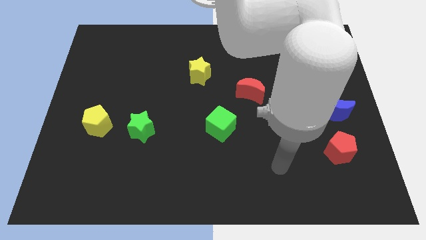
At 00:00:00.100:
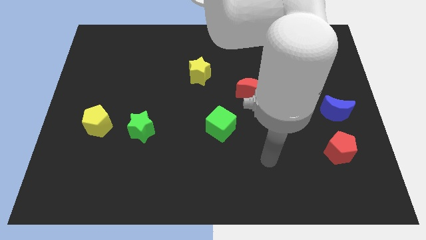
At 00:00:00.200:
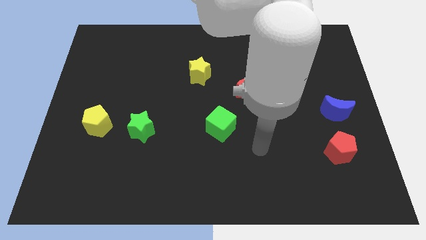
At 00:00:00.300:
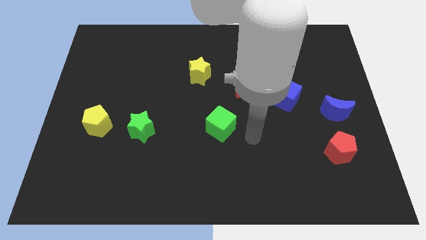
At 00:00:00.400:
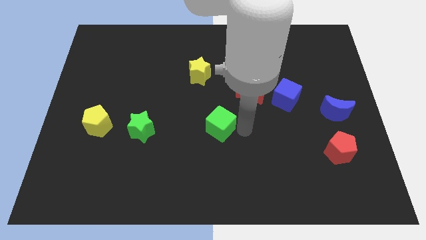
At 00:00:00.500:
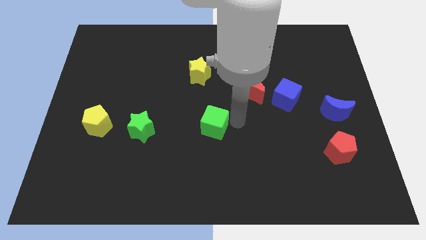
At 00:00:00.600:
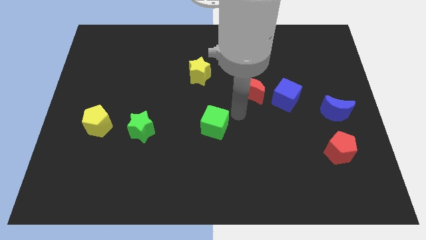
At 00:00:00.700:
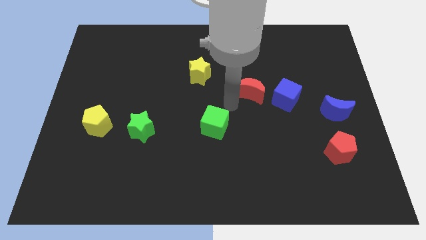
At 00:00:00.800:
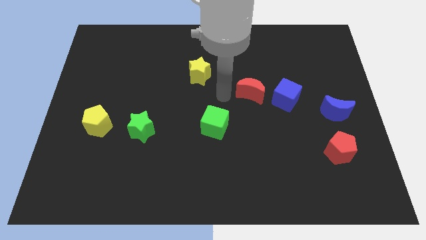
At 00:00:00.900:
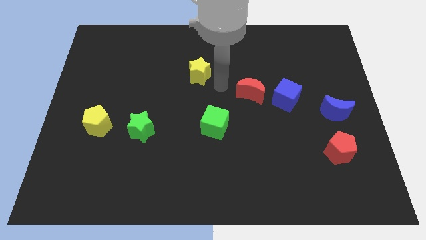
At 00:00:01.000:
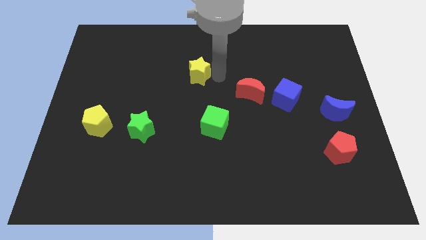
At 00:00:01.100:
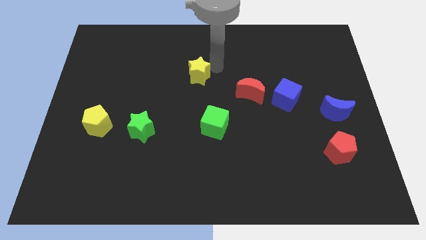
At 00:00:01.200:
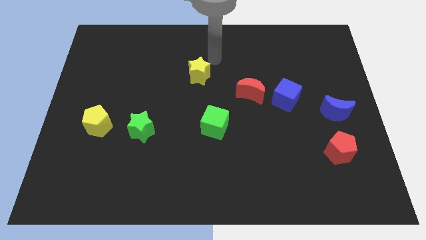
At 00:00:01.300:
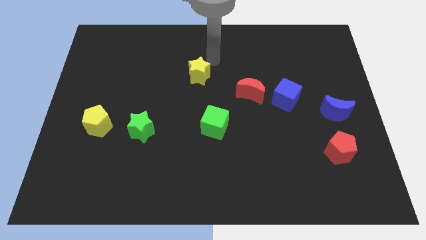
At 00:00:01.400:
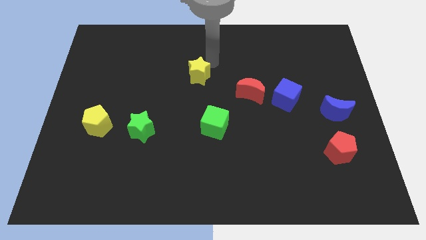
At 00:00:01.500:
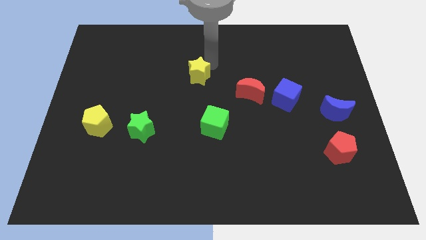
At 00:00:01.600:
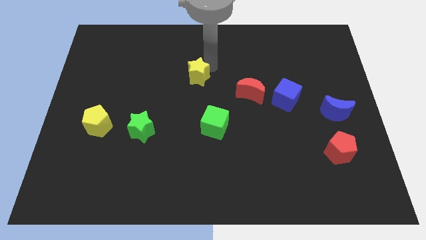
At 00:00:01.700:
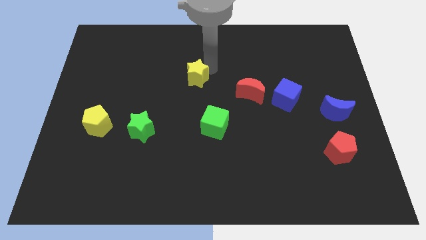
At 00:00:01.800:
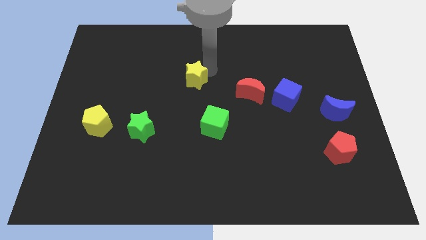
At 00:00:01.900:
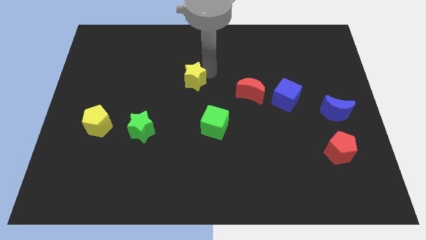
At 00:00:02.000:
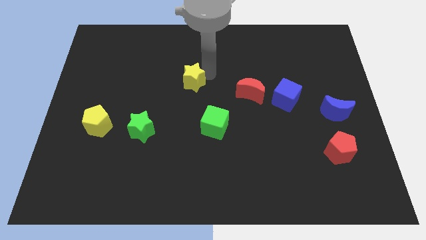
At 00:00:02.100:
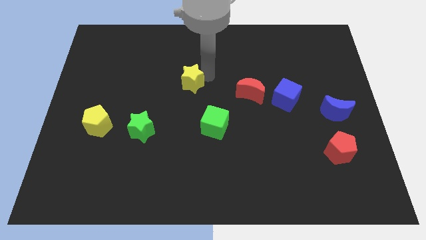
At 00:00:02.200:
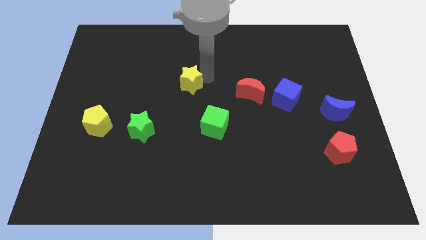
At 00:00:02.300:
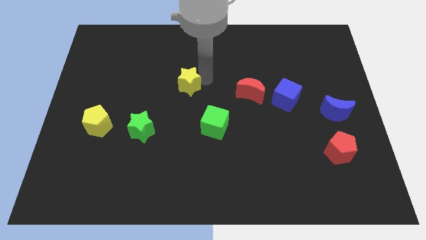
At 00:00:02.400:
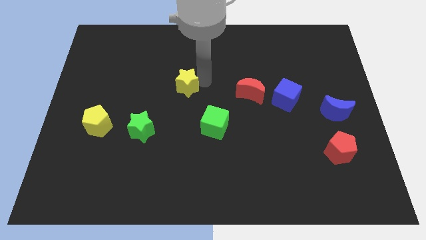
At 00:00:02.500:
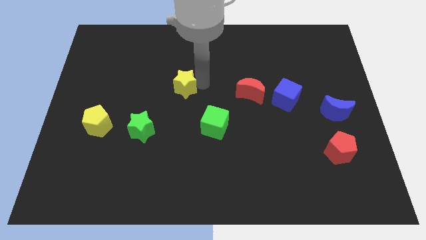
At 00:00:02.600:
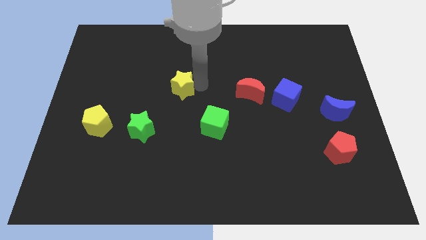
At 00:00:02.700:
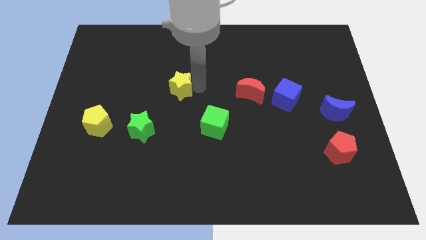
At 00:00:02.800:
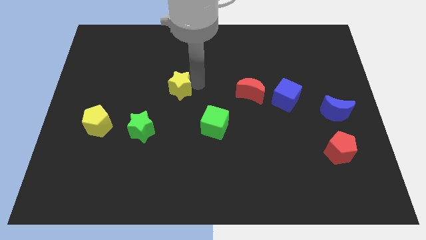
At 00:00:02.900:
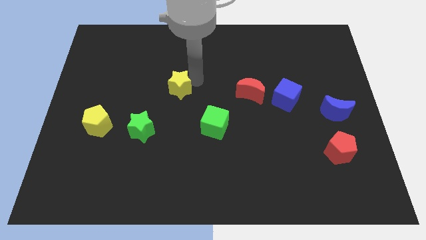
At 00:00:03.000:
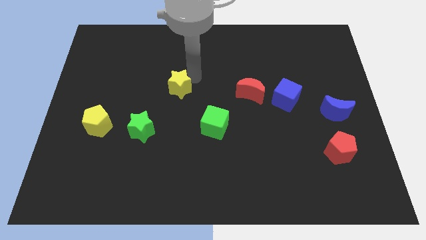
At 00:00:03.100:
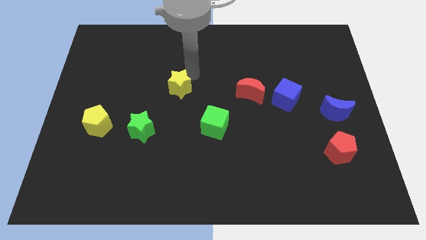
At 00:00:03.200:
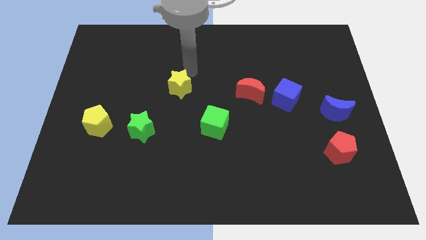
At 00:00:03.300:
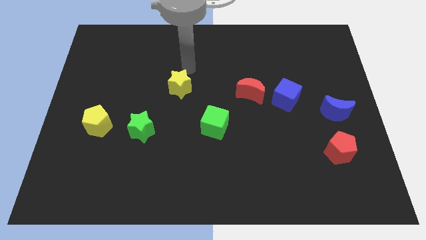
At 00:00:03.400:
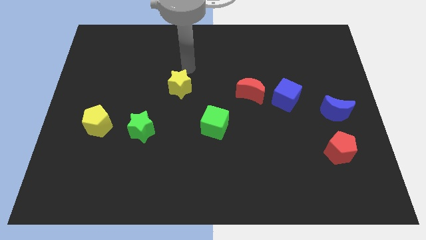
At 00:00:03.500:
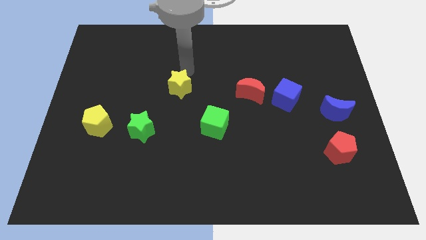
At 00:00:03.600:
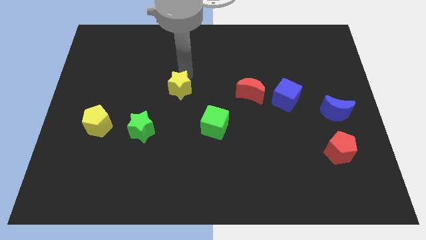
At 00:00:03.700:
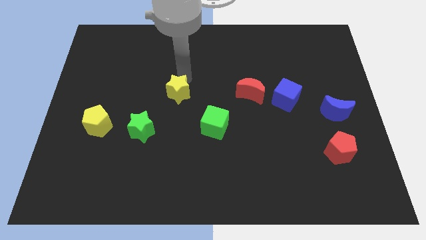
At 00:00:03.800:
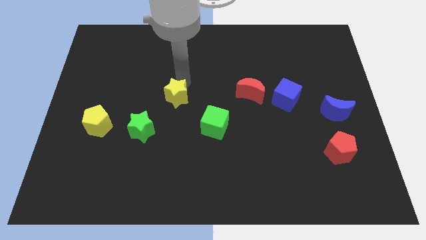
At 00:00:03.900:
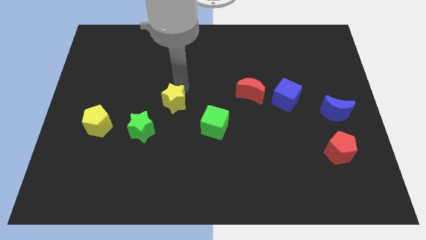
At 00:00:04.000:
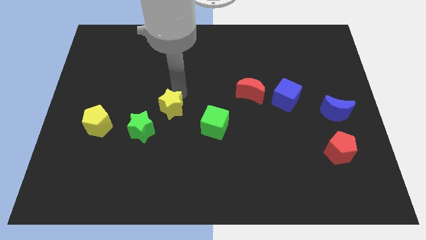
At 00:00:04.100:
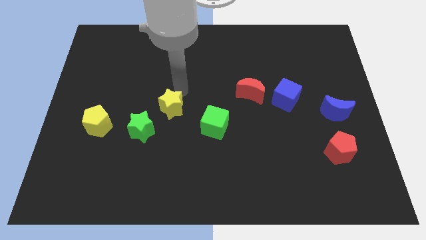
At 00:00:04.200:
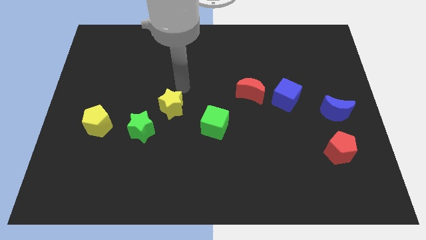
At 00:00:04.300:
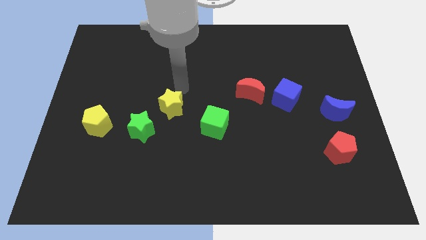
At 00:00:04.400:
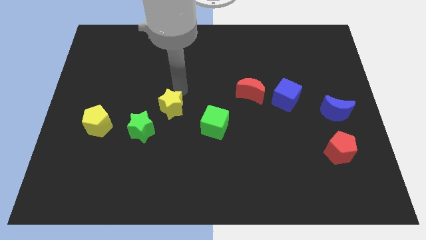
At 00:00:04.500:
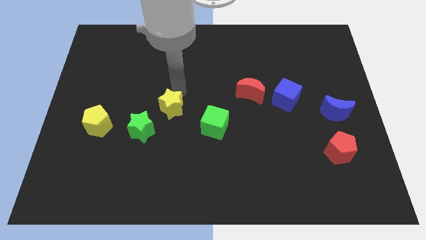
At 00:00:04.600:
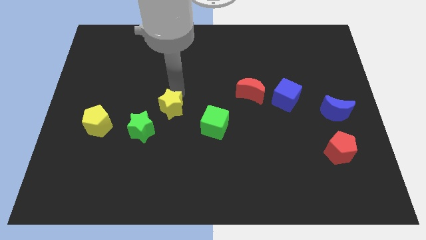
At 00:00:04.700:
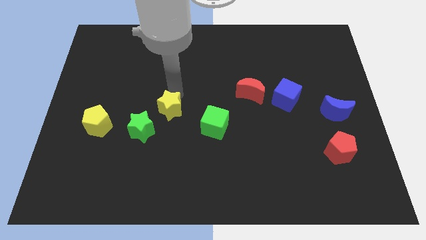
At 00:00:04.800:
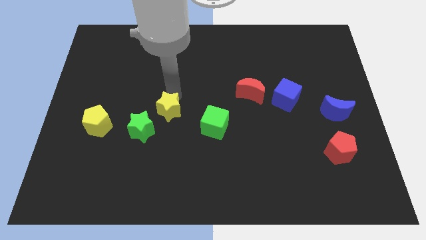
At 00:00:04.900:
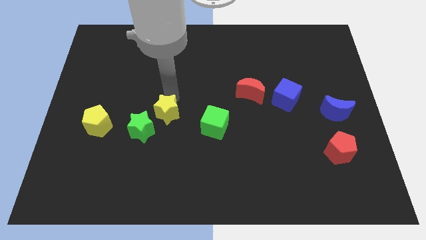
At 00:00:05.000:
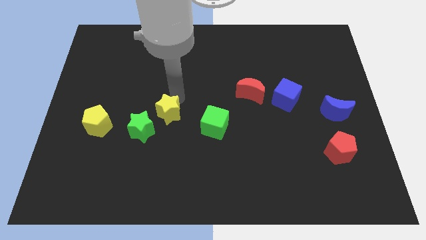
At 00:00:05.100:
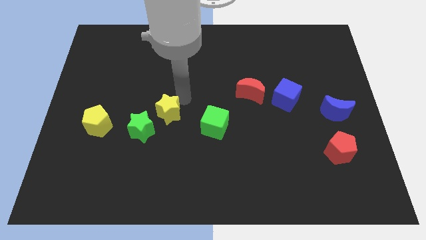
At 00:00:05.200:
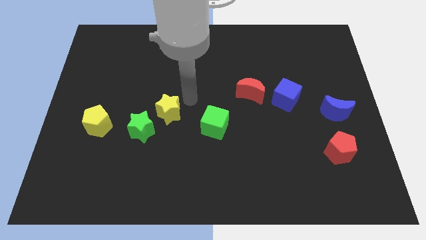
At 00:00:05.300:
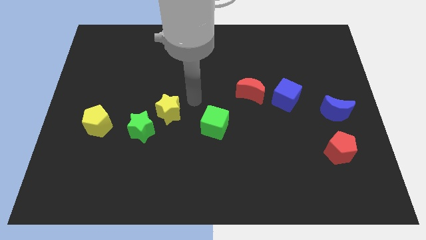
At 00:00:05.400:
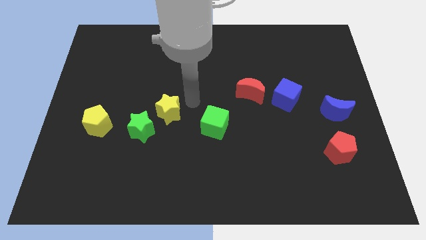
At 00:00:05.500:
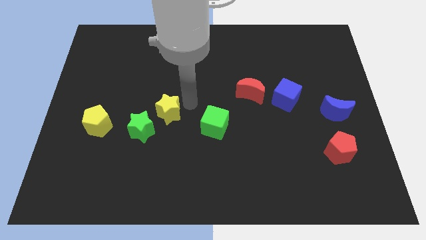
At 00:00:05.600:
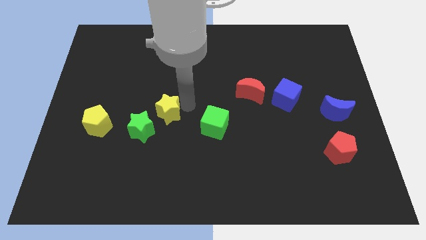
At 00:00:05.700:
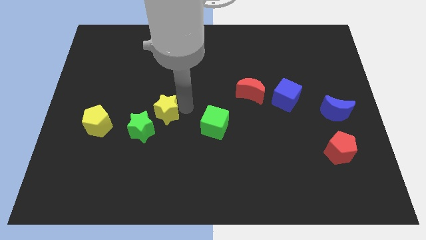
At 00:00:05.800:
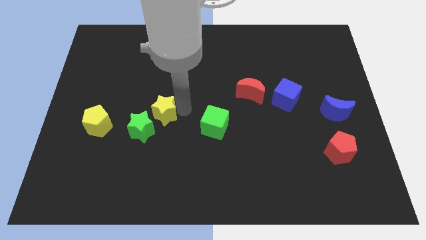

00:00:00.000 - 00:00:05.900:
push the yellow star to the right side of the yellow pentagon

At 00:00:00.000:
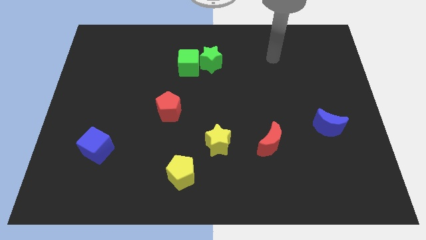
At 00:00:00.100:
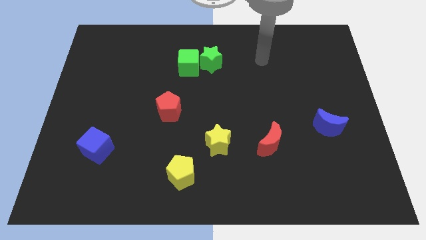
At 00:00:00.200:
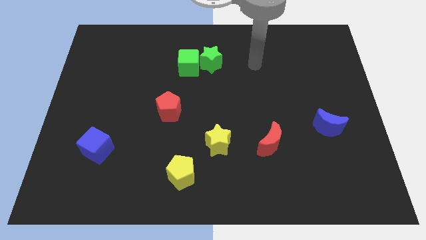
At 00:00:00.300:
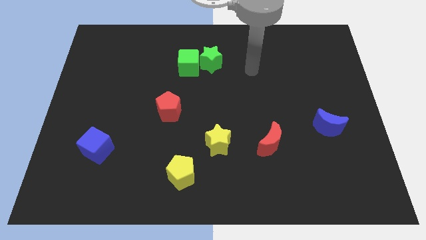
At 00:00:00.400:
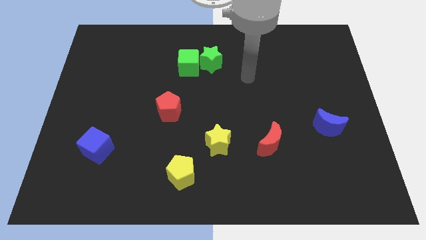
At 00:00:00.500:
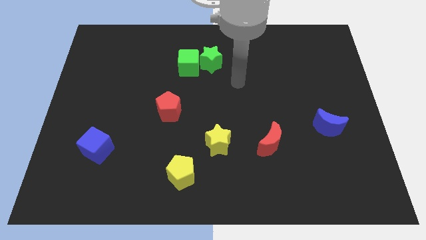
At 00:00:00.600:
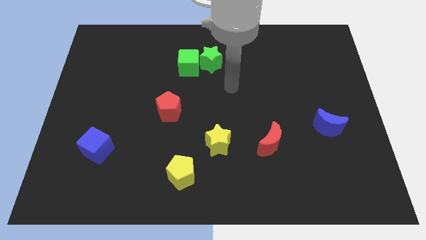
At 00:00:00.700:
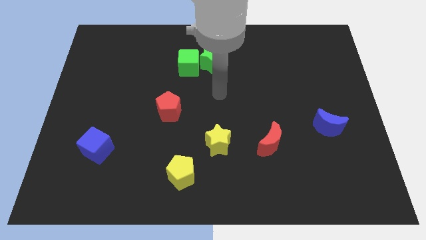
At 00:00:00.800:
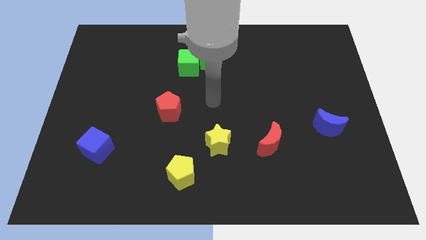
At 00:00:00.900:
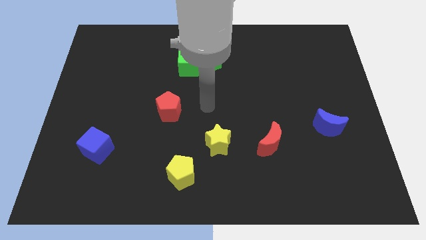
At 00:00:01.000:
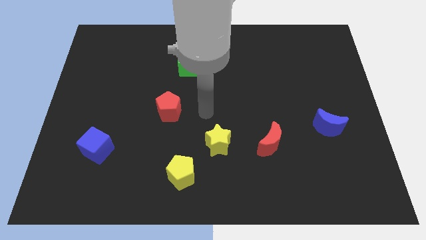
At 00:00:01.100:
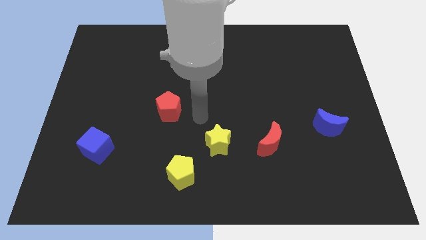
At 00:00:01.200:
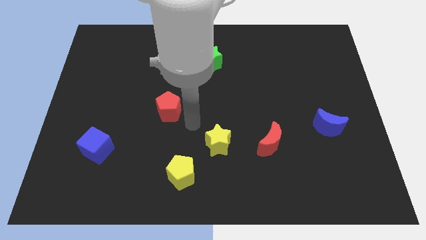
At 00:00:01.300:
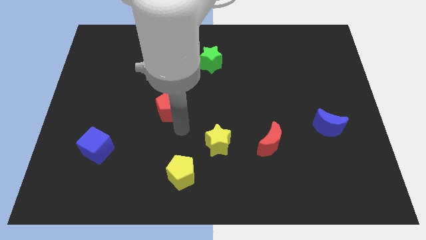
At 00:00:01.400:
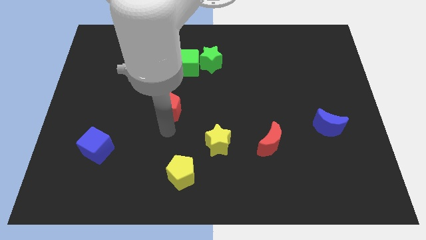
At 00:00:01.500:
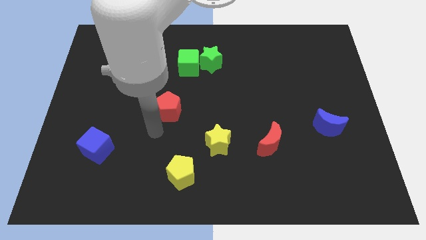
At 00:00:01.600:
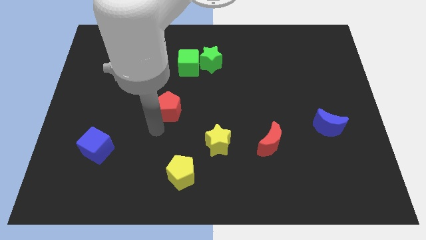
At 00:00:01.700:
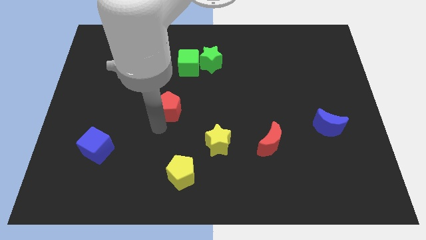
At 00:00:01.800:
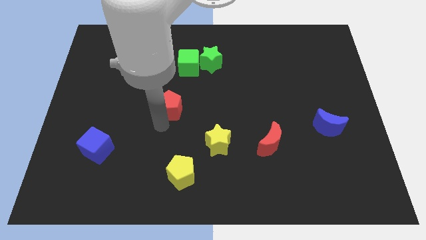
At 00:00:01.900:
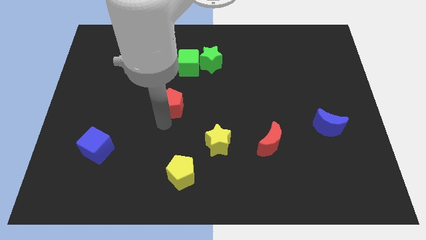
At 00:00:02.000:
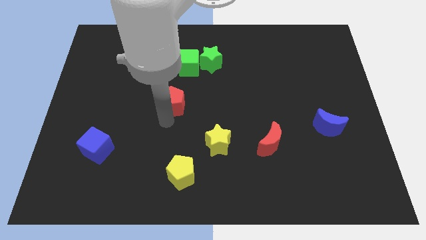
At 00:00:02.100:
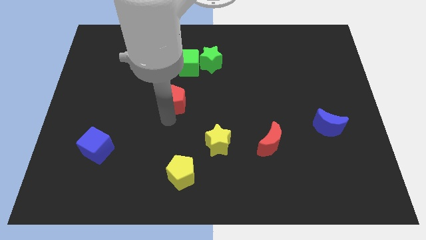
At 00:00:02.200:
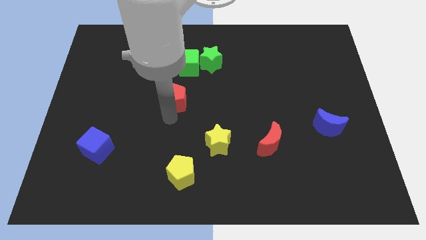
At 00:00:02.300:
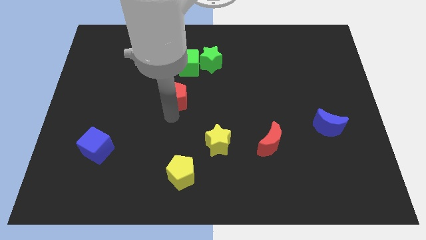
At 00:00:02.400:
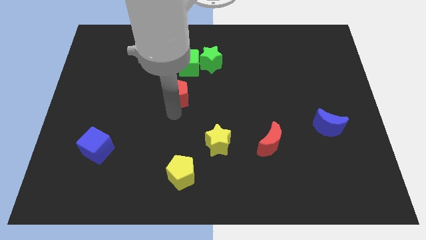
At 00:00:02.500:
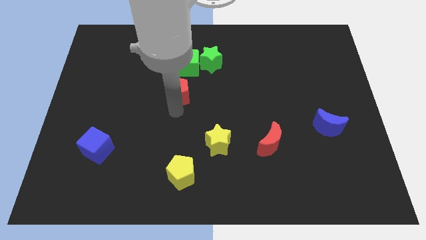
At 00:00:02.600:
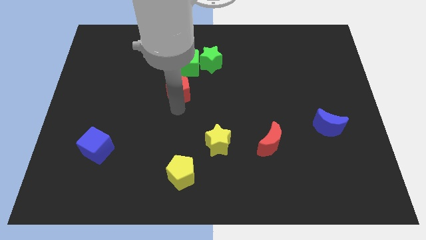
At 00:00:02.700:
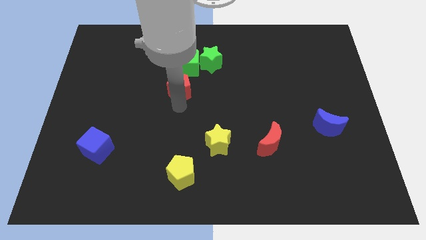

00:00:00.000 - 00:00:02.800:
put the red pentagon to the bottom left of the green star
